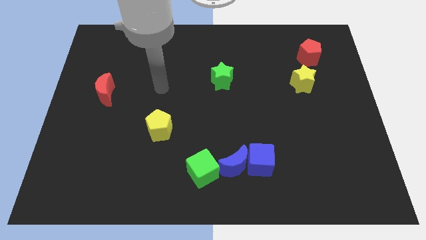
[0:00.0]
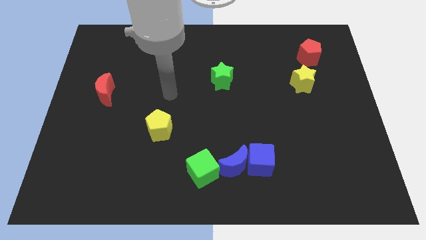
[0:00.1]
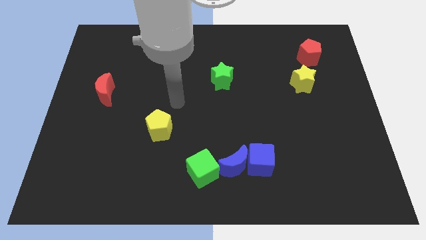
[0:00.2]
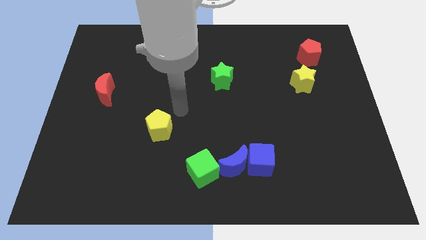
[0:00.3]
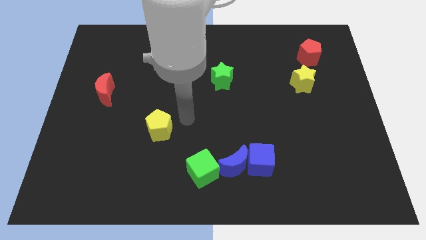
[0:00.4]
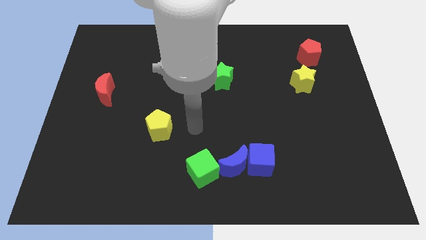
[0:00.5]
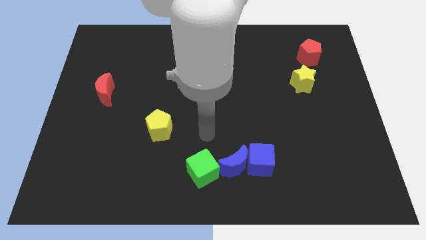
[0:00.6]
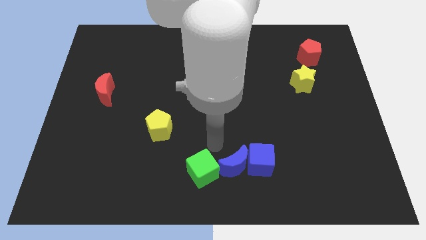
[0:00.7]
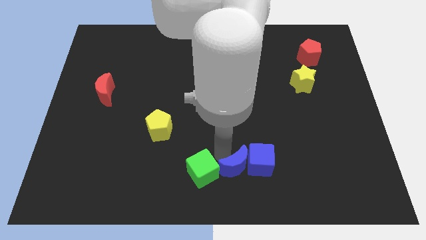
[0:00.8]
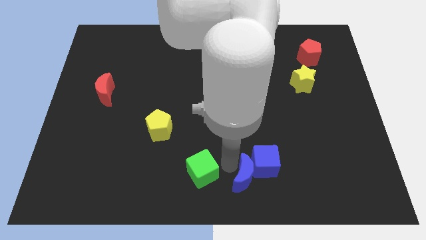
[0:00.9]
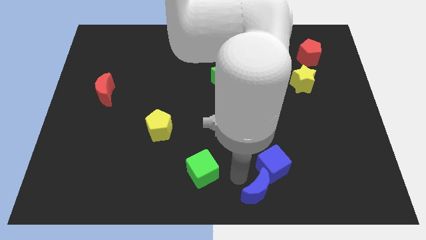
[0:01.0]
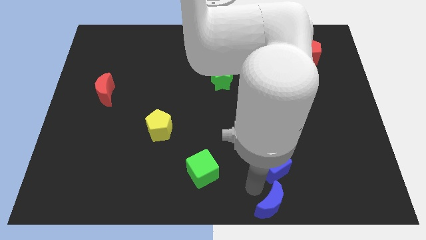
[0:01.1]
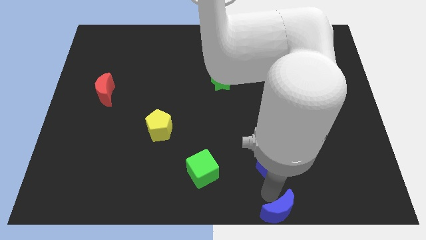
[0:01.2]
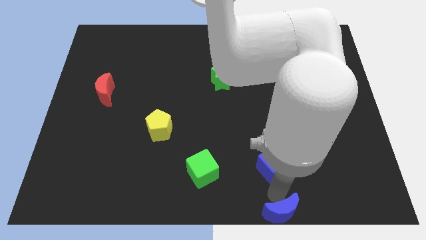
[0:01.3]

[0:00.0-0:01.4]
move the blue cube away from the blue moon

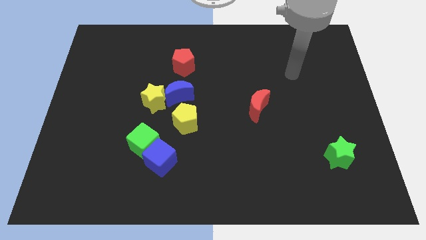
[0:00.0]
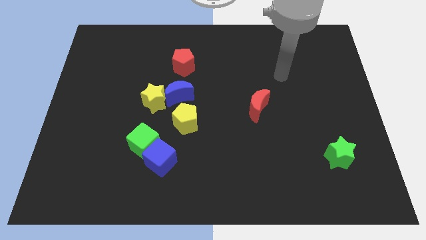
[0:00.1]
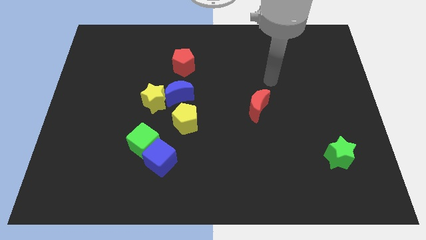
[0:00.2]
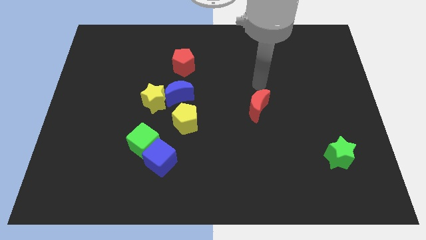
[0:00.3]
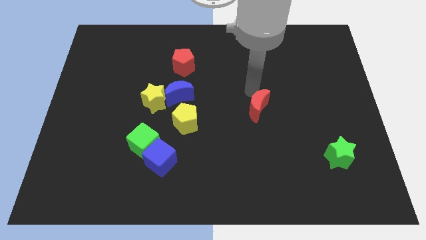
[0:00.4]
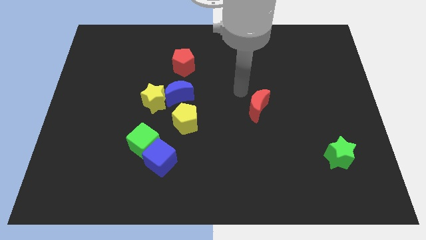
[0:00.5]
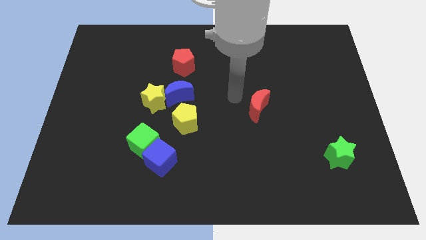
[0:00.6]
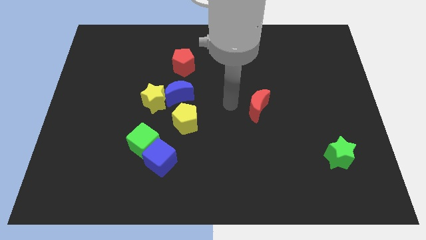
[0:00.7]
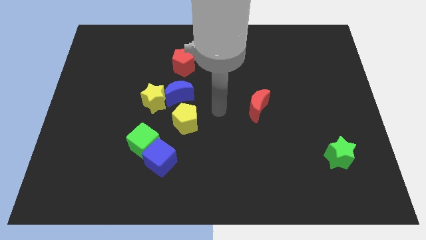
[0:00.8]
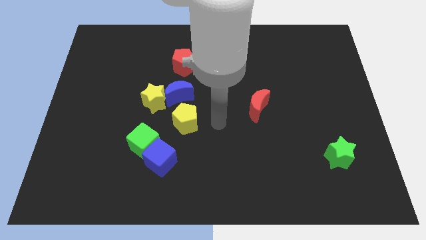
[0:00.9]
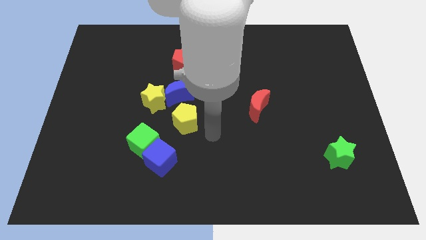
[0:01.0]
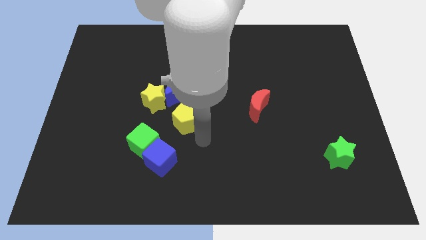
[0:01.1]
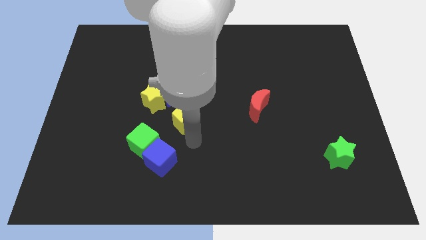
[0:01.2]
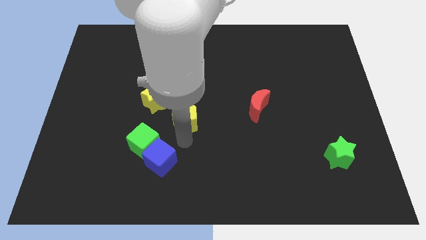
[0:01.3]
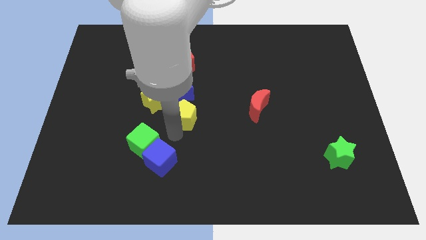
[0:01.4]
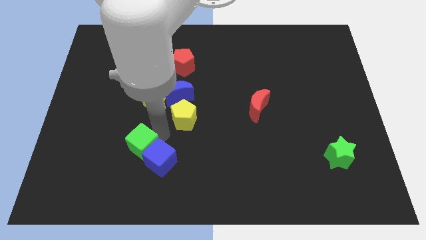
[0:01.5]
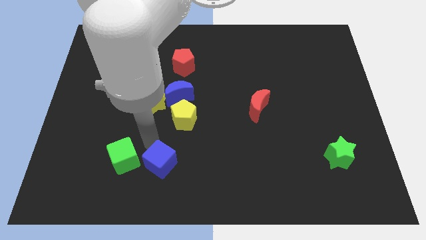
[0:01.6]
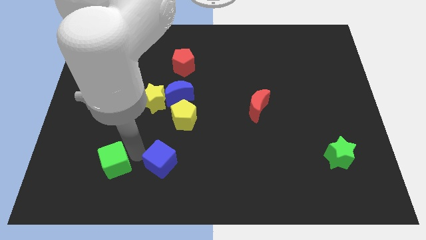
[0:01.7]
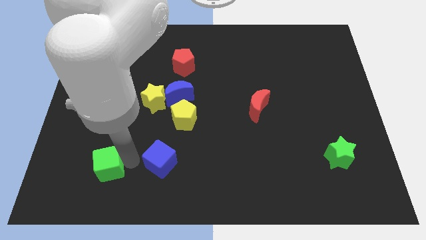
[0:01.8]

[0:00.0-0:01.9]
separate the blue cube from the green cube

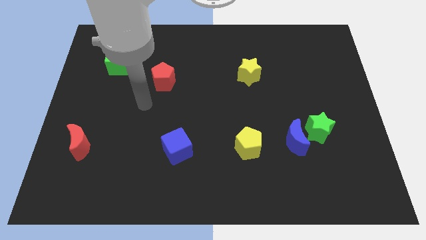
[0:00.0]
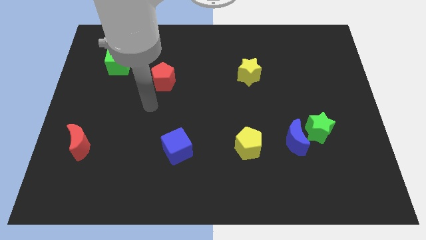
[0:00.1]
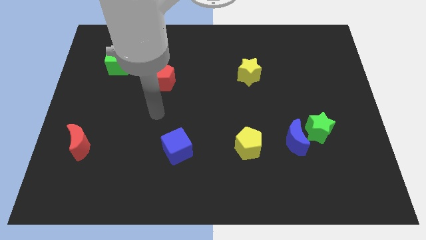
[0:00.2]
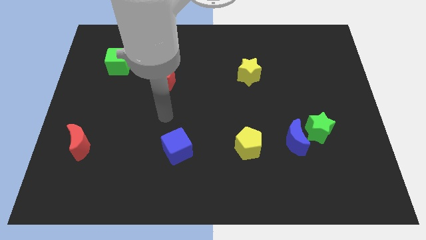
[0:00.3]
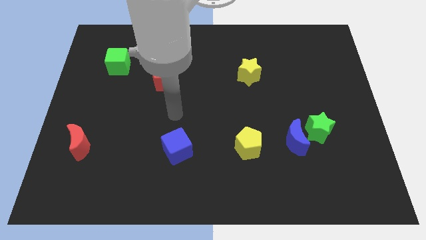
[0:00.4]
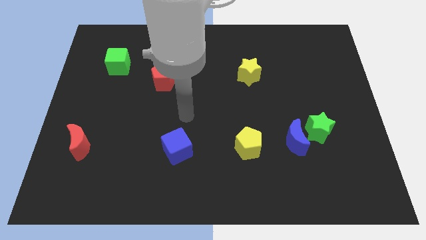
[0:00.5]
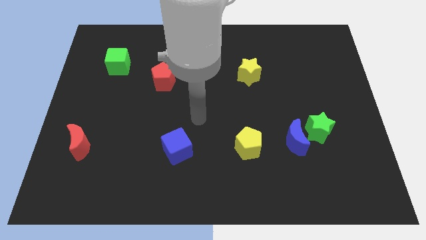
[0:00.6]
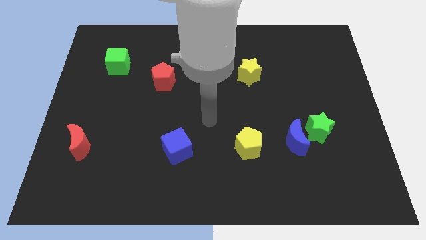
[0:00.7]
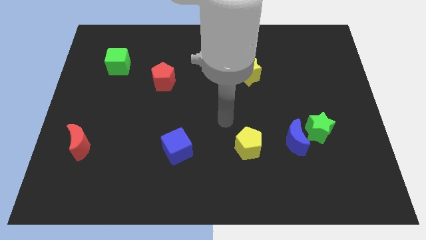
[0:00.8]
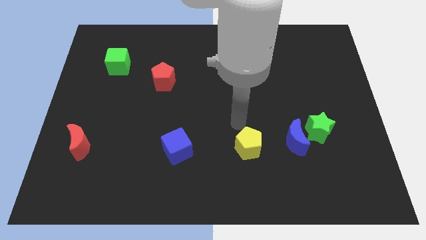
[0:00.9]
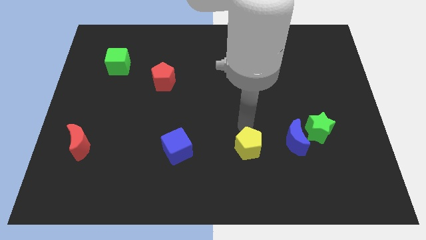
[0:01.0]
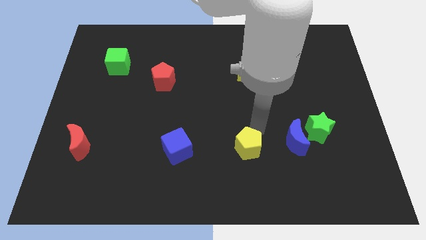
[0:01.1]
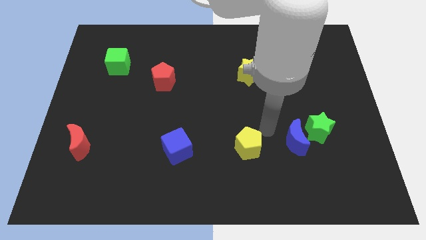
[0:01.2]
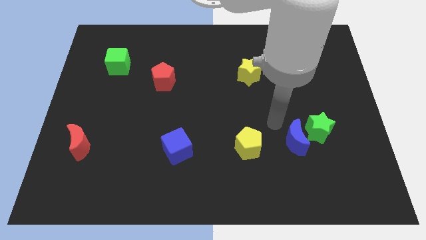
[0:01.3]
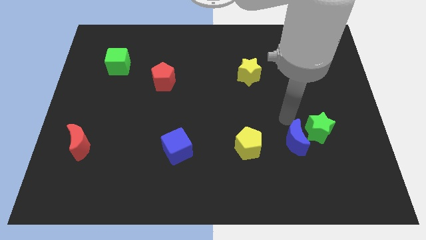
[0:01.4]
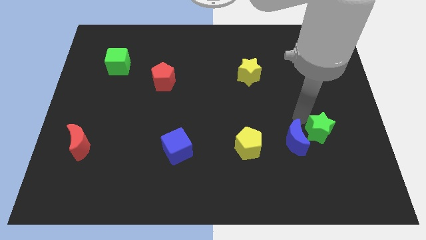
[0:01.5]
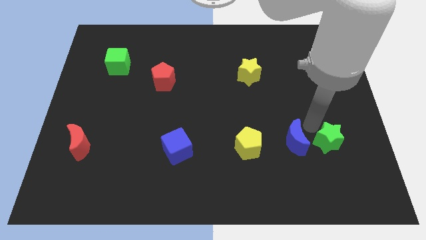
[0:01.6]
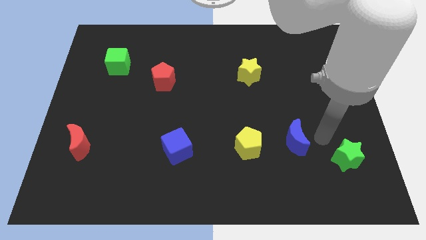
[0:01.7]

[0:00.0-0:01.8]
pull the blue moon apart from the green star

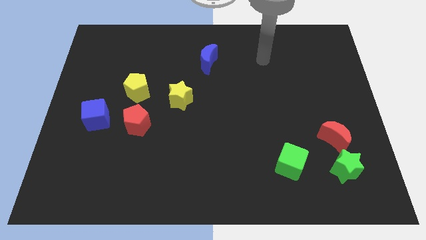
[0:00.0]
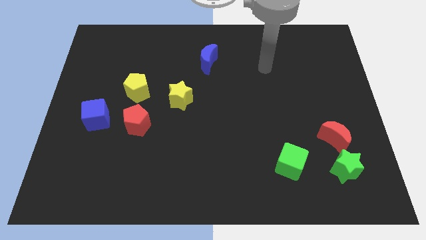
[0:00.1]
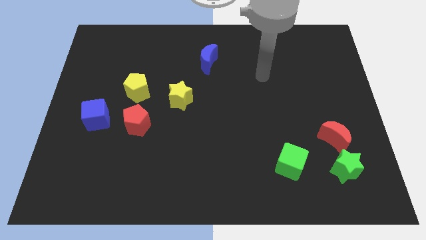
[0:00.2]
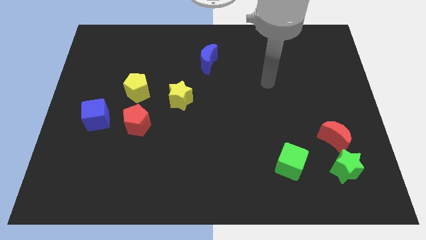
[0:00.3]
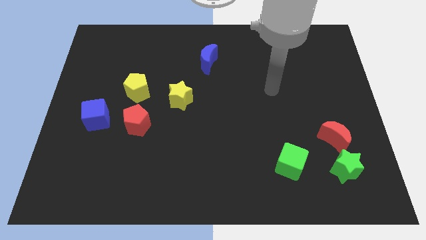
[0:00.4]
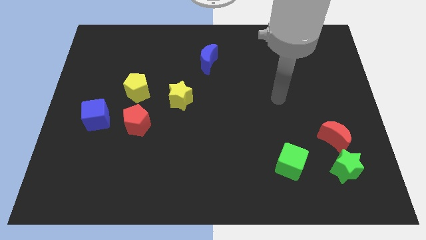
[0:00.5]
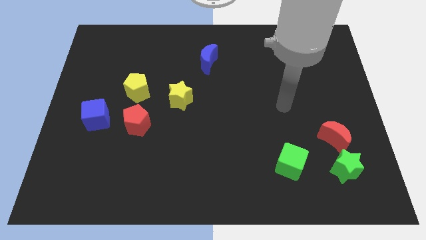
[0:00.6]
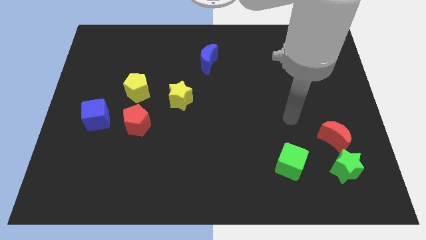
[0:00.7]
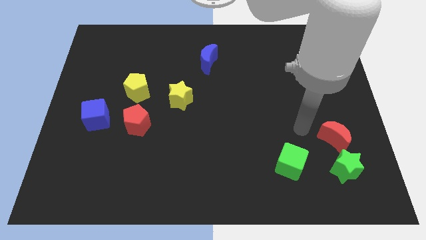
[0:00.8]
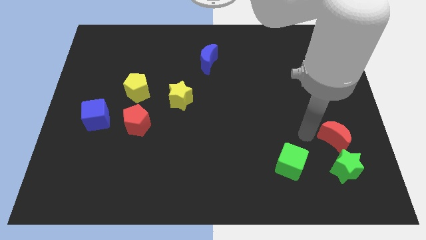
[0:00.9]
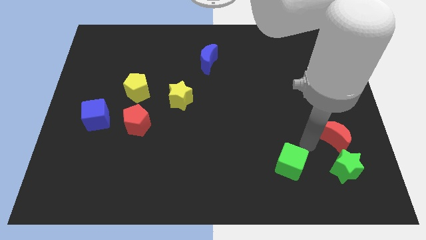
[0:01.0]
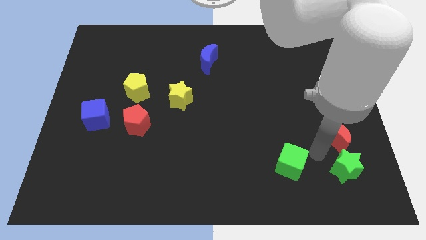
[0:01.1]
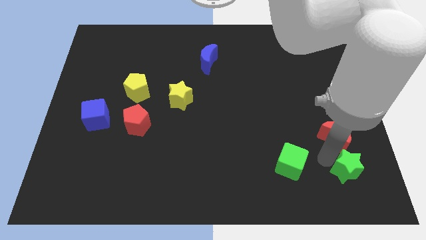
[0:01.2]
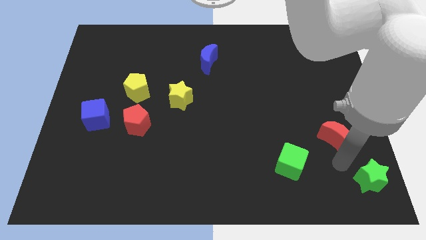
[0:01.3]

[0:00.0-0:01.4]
move the red moon away from the green star

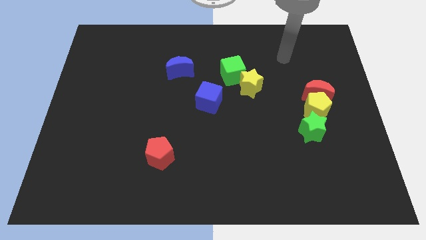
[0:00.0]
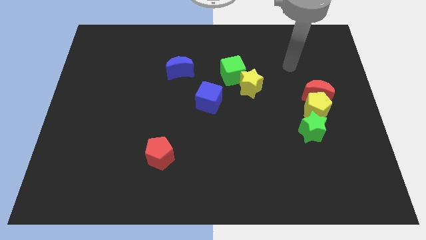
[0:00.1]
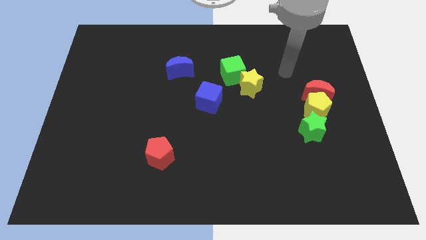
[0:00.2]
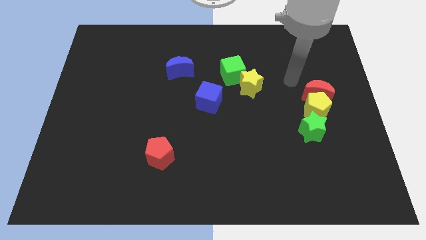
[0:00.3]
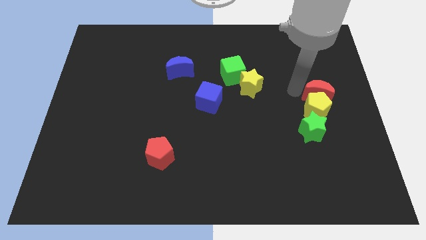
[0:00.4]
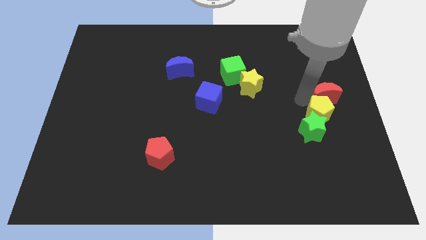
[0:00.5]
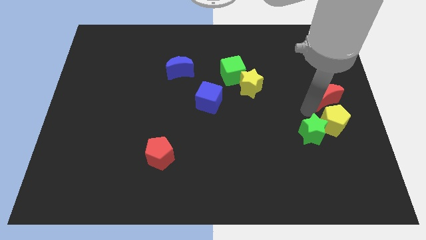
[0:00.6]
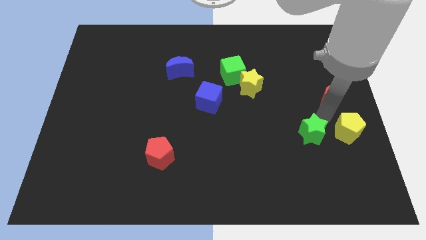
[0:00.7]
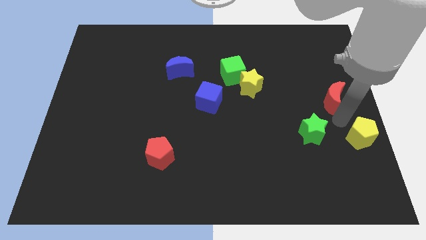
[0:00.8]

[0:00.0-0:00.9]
move the red moon away from the yellow pentagon

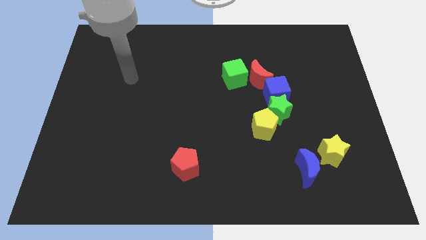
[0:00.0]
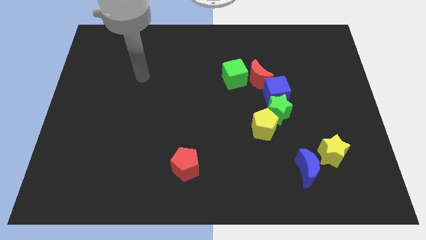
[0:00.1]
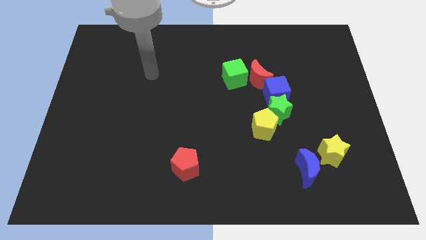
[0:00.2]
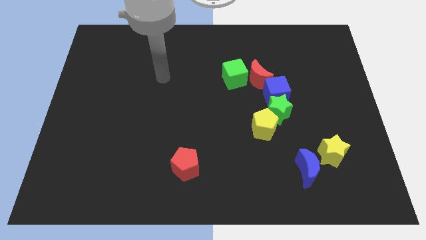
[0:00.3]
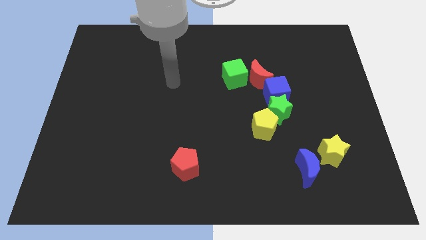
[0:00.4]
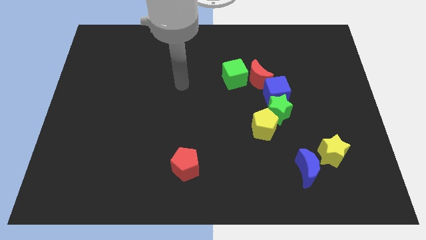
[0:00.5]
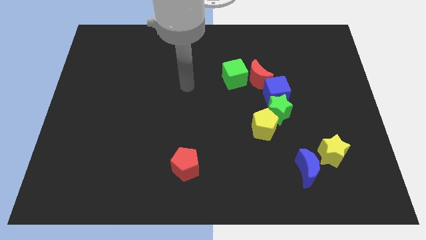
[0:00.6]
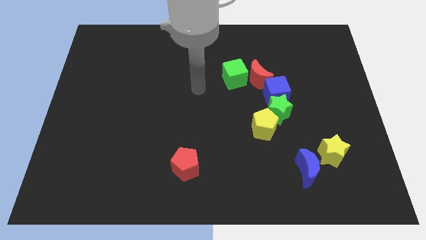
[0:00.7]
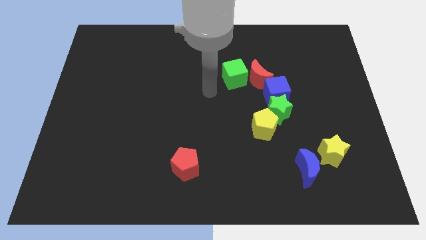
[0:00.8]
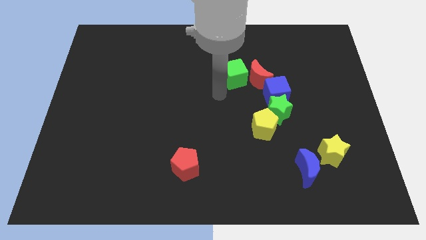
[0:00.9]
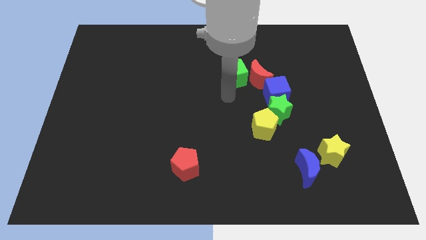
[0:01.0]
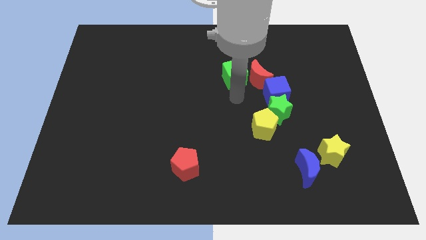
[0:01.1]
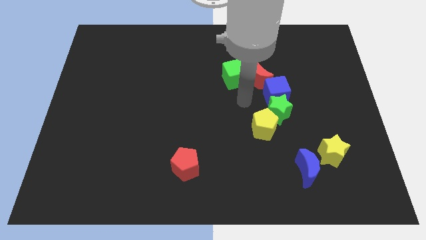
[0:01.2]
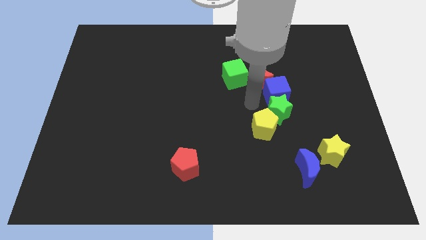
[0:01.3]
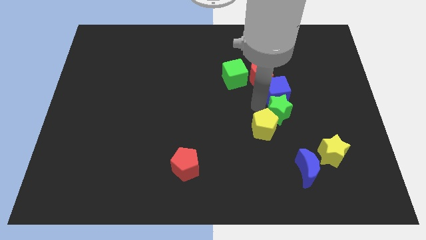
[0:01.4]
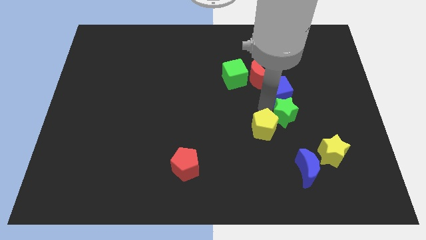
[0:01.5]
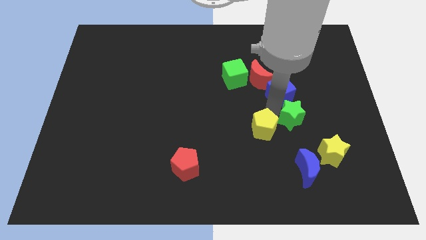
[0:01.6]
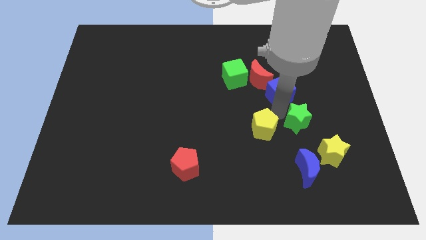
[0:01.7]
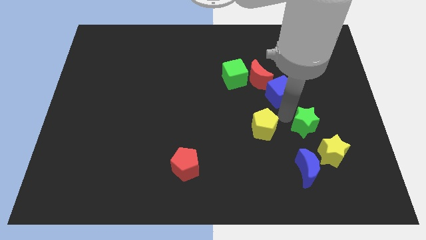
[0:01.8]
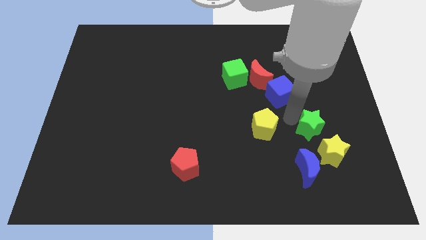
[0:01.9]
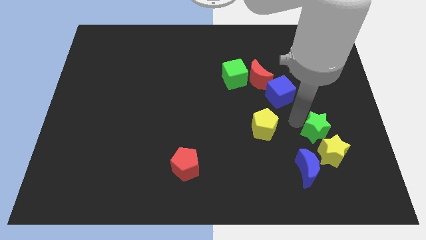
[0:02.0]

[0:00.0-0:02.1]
pull the green star apart from the blue cube and yellow pentagon
